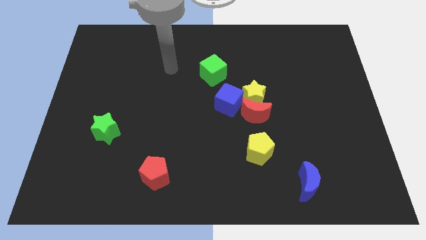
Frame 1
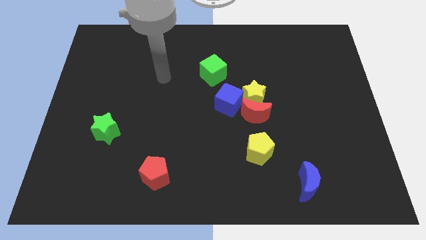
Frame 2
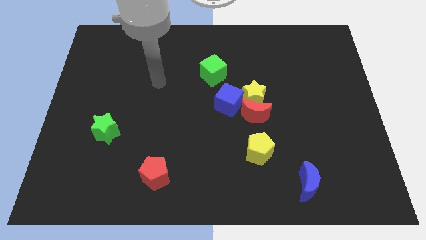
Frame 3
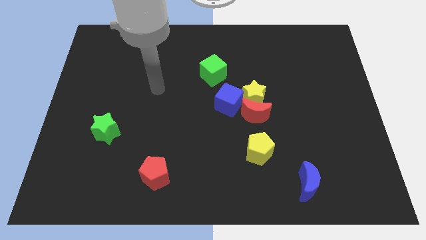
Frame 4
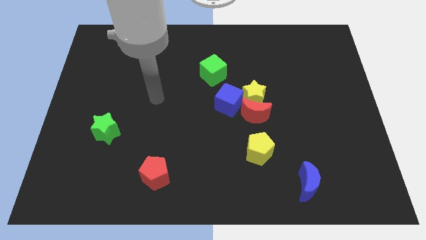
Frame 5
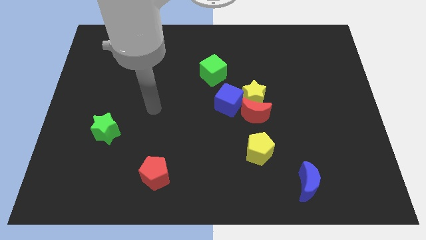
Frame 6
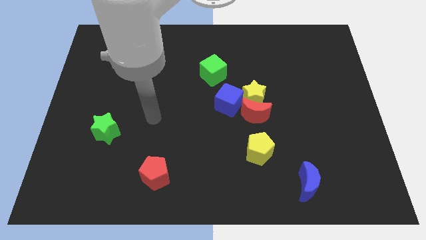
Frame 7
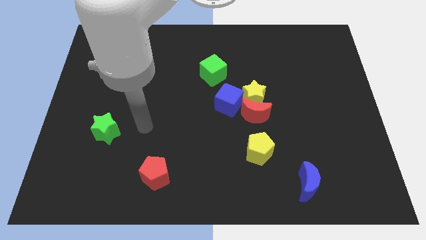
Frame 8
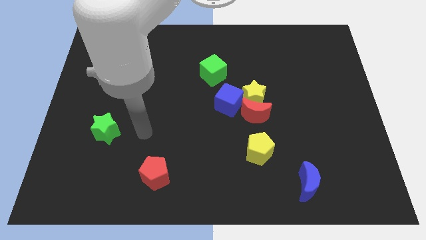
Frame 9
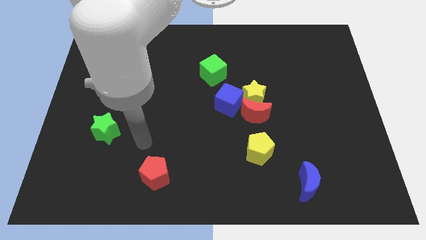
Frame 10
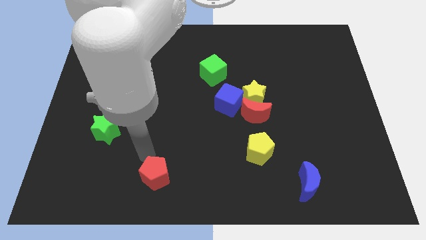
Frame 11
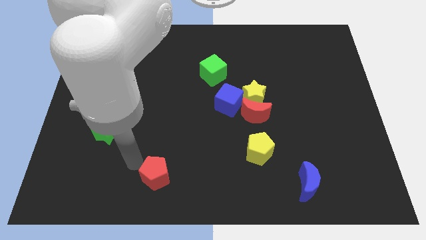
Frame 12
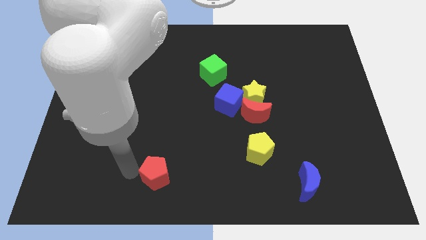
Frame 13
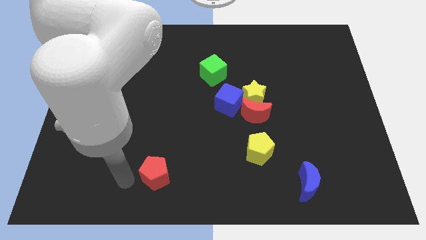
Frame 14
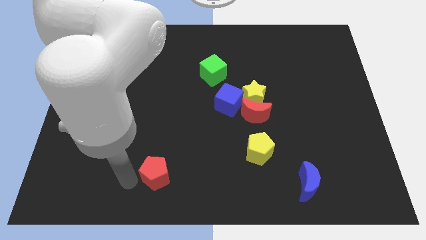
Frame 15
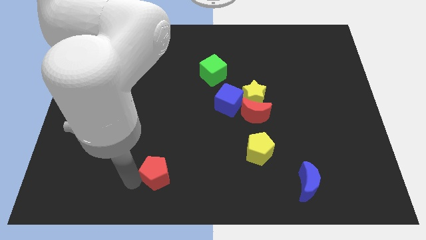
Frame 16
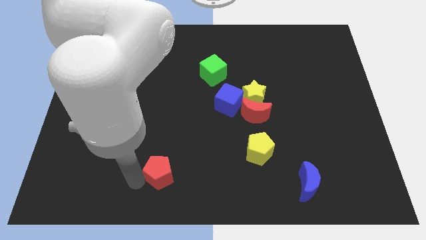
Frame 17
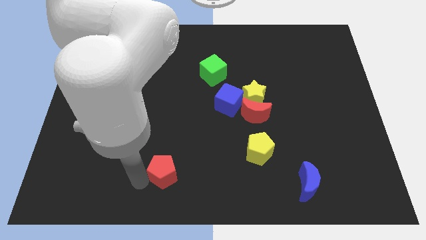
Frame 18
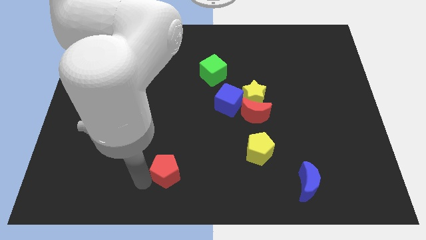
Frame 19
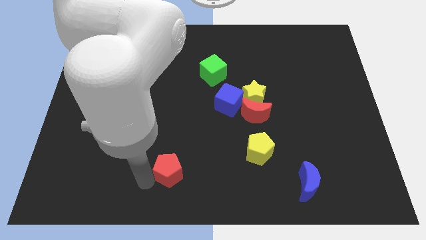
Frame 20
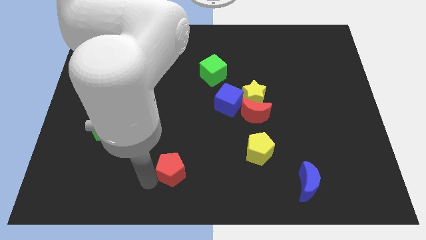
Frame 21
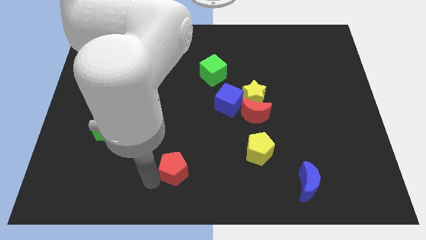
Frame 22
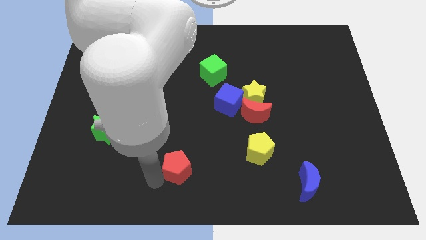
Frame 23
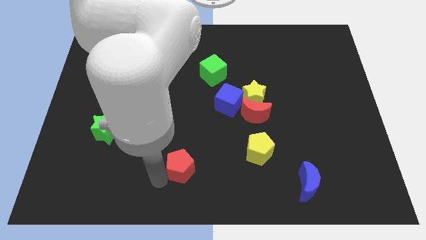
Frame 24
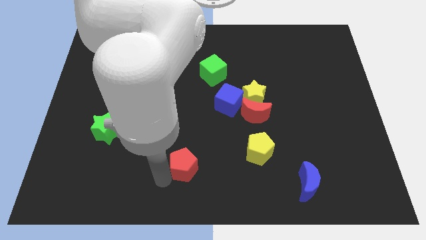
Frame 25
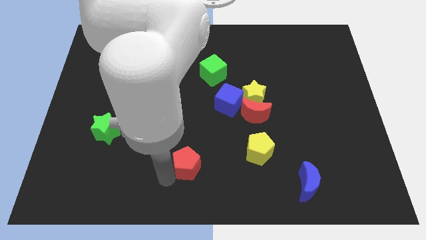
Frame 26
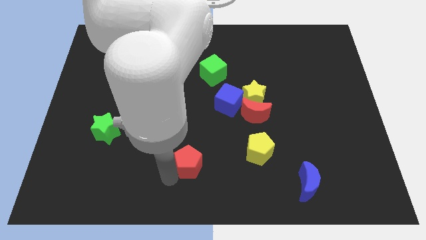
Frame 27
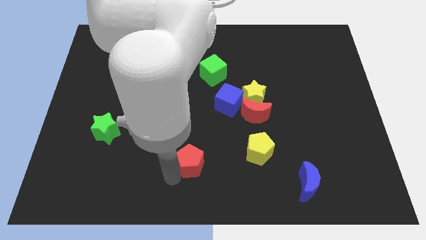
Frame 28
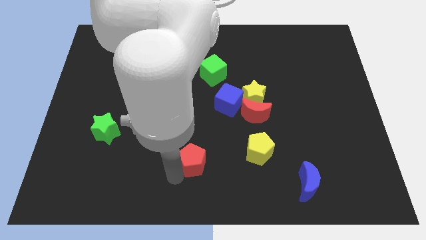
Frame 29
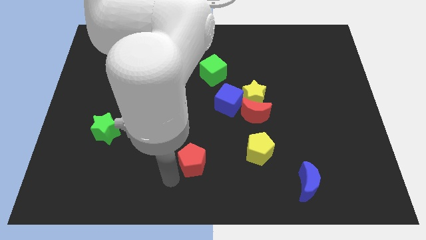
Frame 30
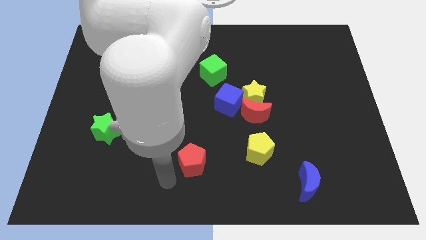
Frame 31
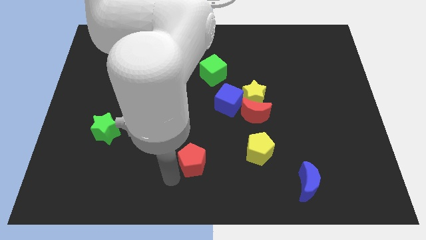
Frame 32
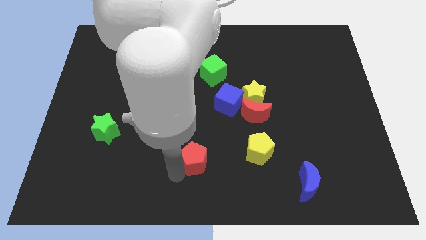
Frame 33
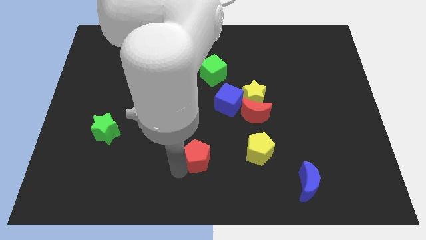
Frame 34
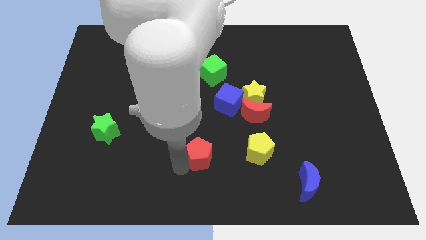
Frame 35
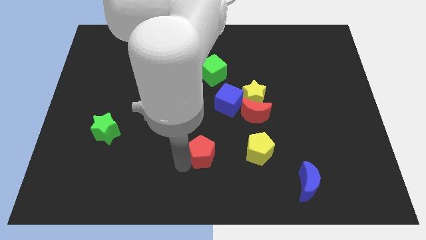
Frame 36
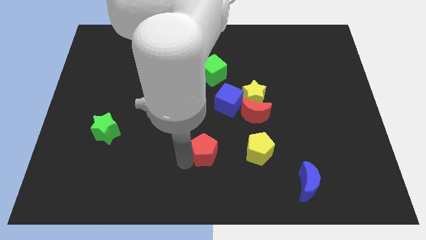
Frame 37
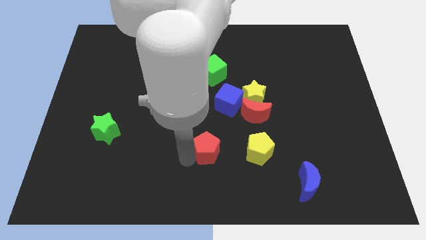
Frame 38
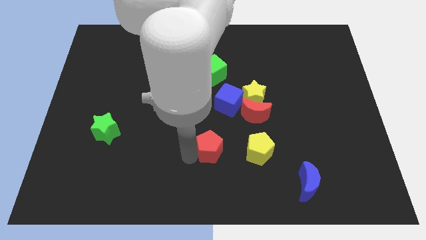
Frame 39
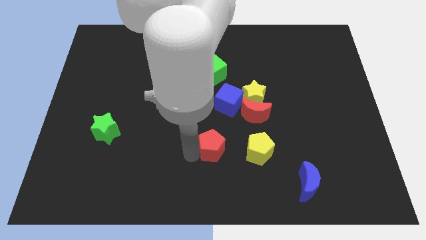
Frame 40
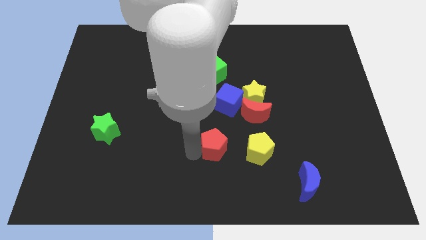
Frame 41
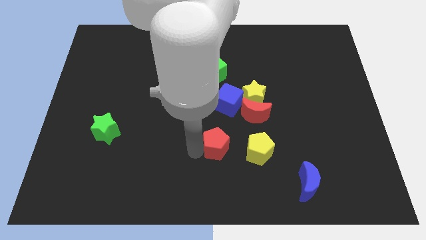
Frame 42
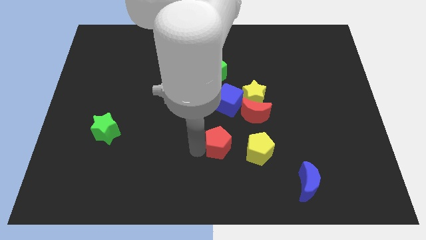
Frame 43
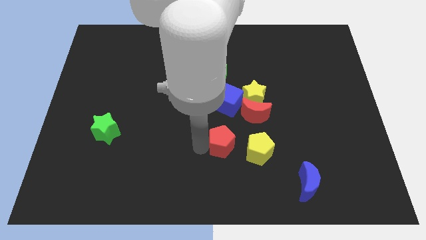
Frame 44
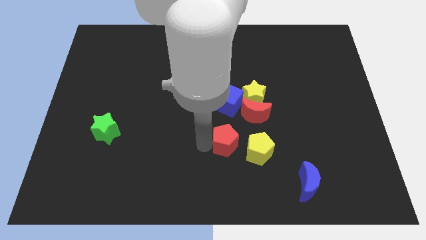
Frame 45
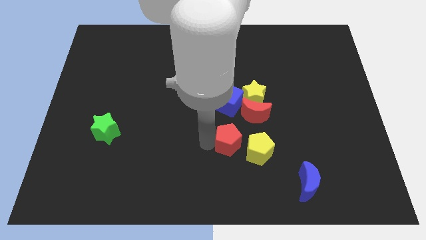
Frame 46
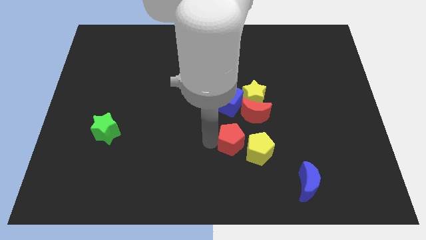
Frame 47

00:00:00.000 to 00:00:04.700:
slide the red pentagon next to the yellow pentagon

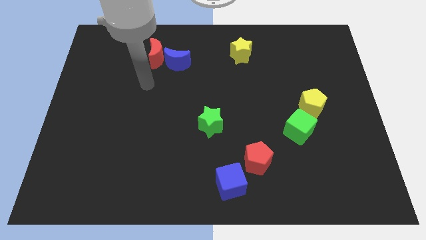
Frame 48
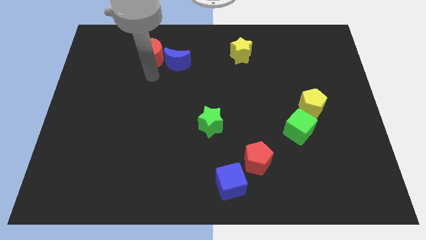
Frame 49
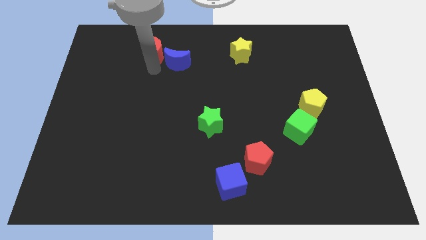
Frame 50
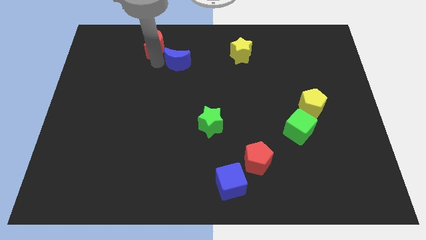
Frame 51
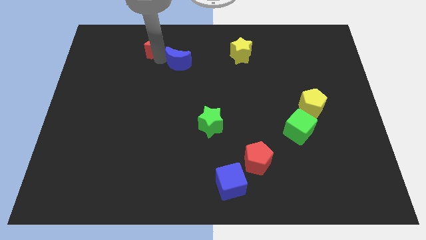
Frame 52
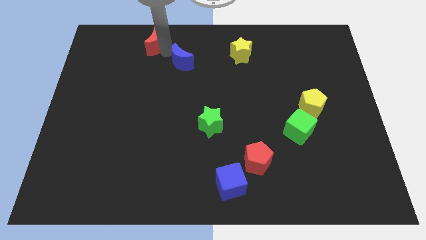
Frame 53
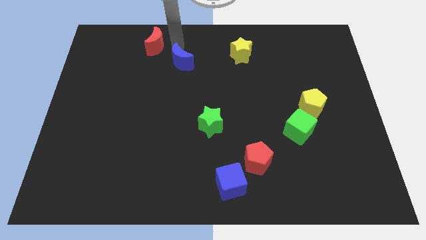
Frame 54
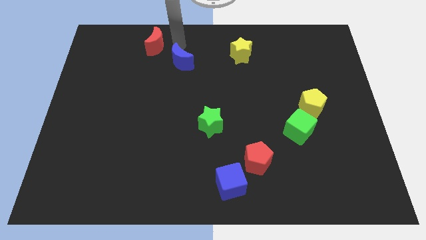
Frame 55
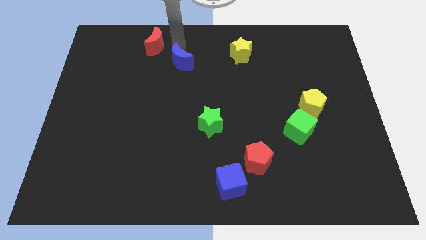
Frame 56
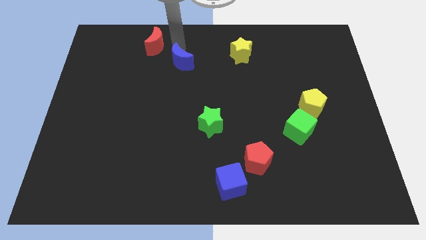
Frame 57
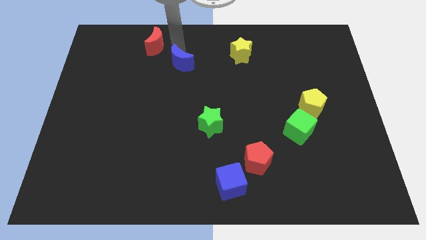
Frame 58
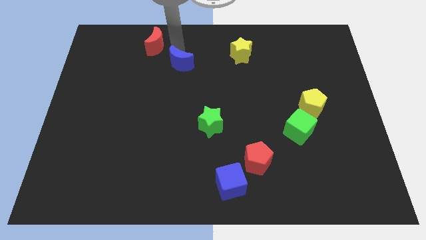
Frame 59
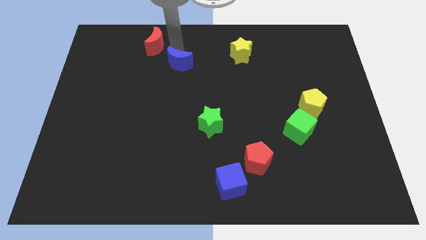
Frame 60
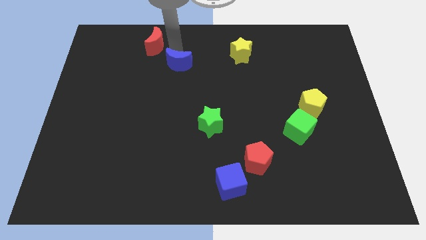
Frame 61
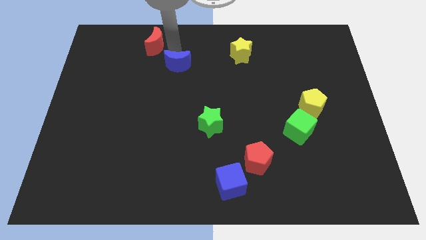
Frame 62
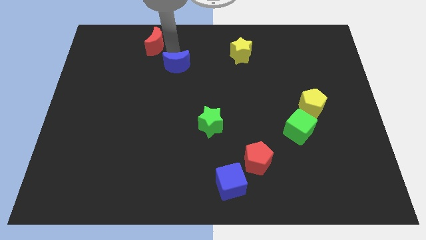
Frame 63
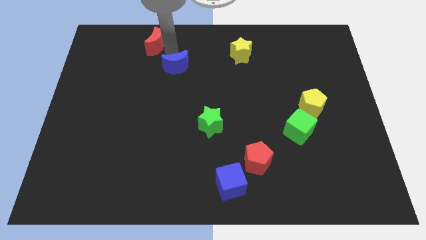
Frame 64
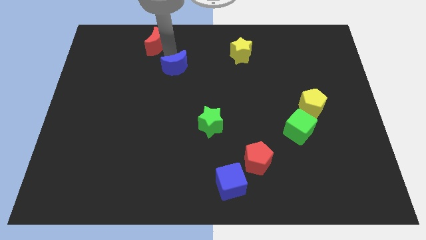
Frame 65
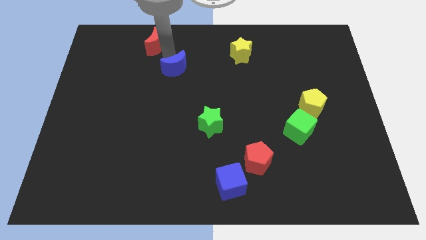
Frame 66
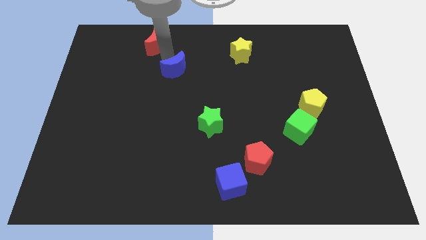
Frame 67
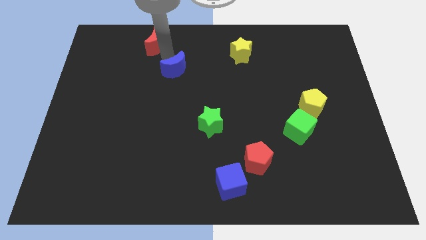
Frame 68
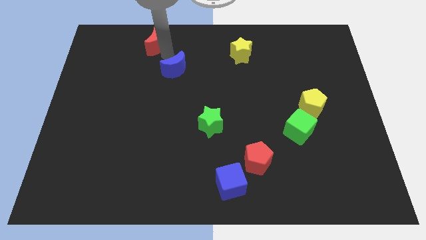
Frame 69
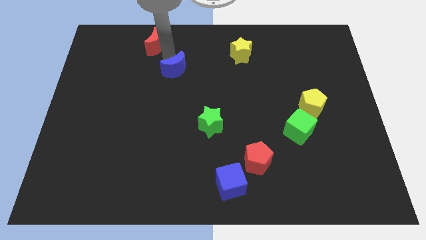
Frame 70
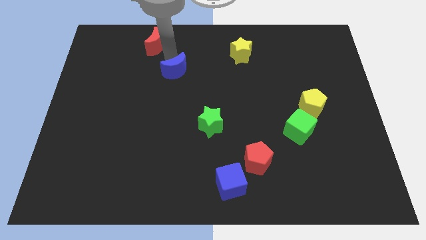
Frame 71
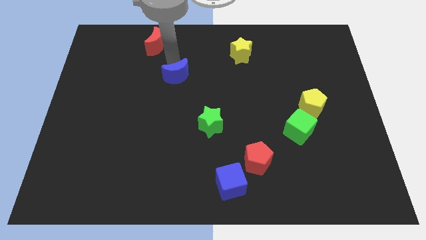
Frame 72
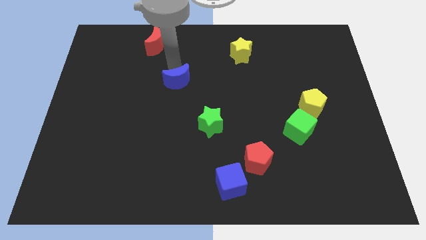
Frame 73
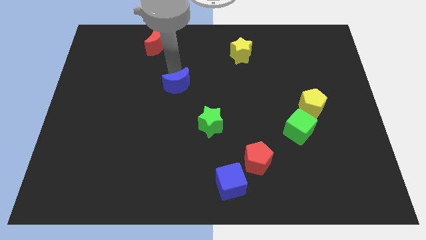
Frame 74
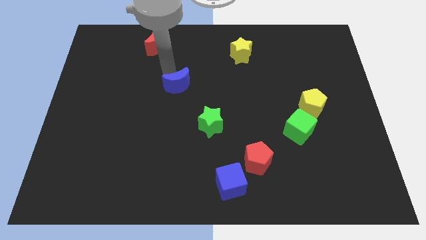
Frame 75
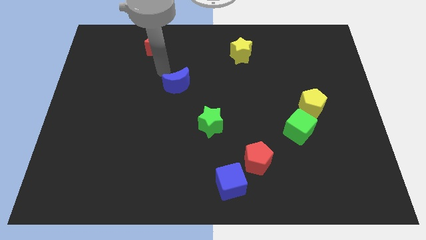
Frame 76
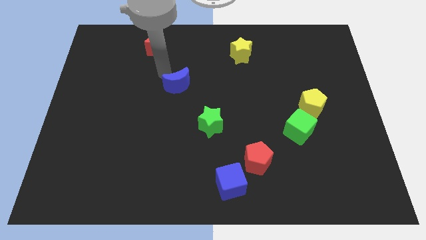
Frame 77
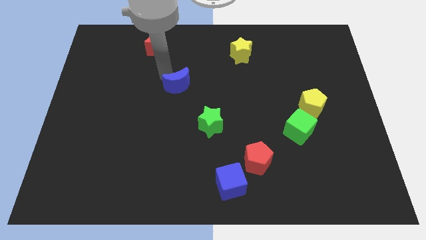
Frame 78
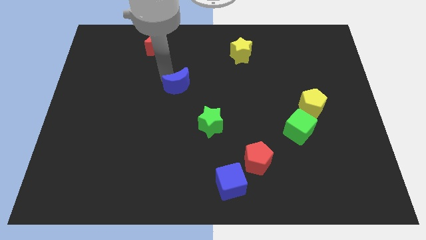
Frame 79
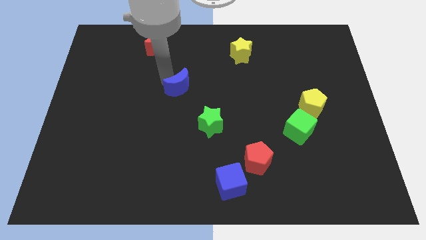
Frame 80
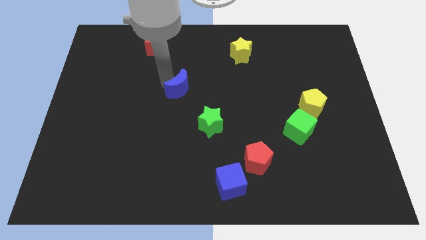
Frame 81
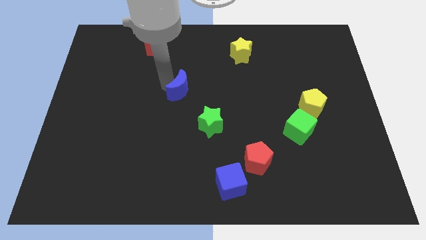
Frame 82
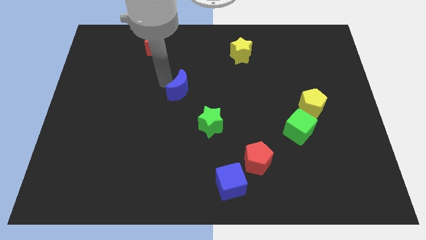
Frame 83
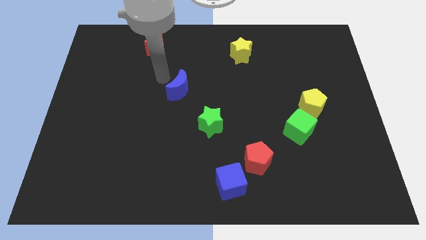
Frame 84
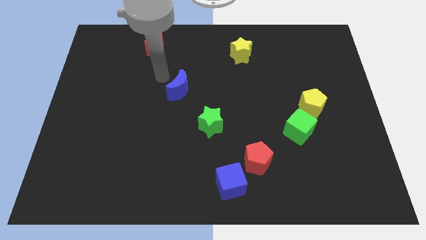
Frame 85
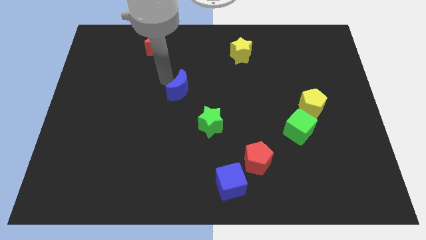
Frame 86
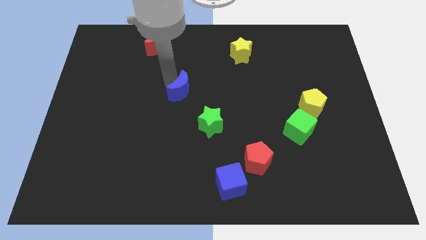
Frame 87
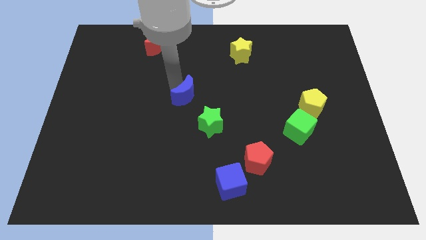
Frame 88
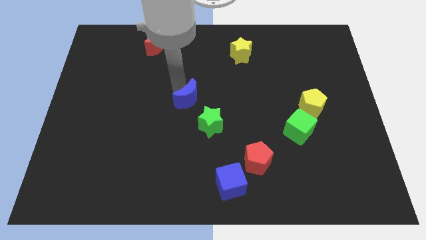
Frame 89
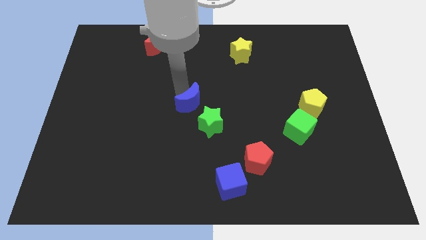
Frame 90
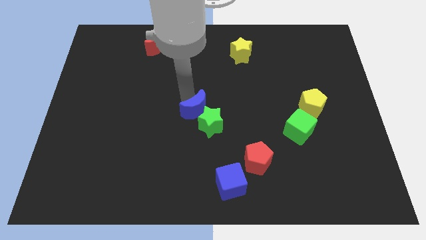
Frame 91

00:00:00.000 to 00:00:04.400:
push the blue moon to the green star
